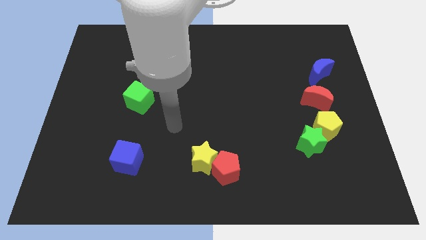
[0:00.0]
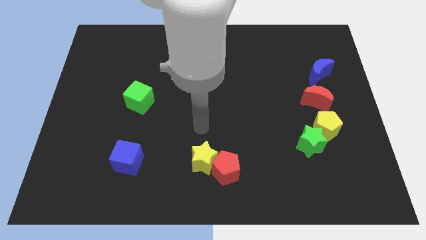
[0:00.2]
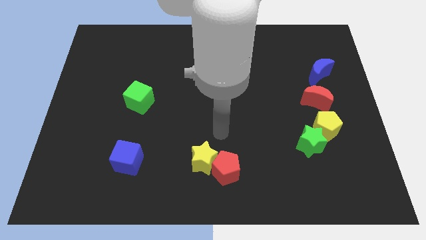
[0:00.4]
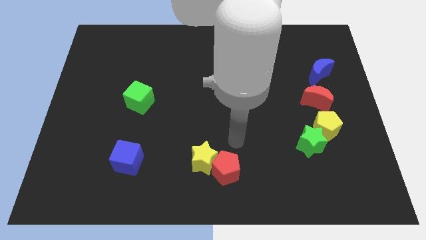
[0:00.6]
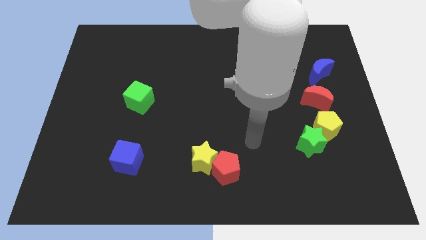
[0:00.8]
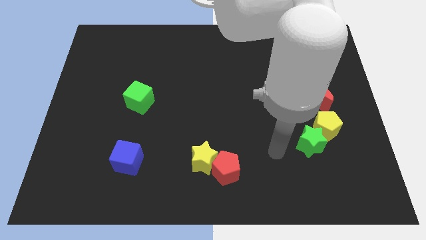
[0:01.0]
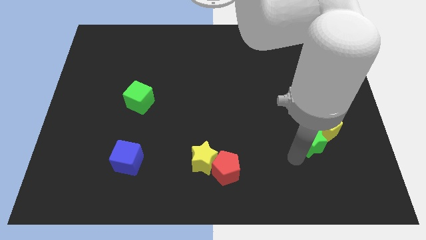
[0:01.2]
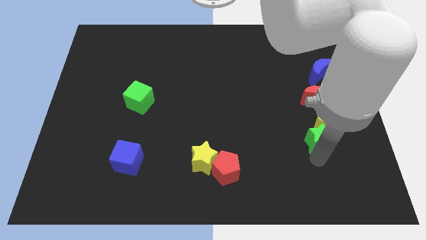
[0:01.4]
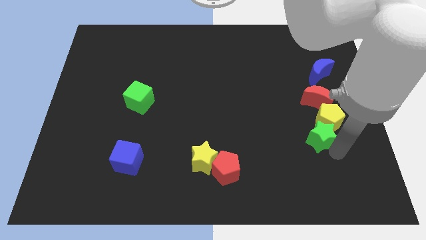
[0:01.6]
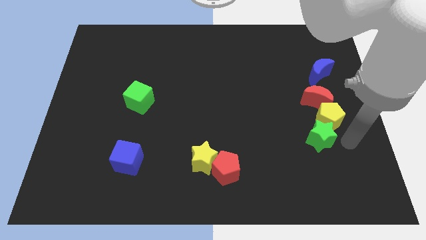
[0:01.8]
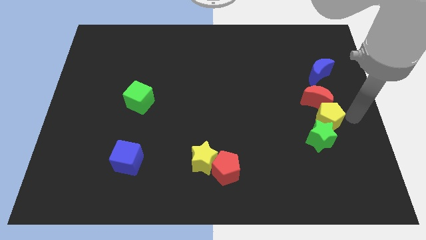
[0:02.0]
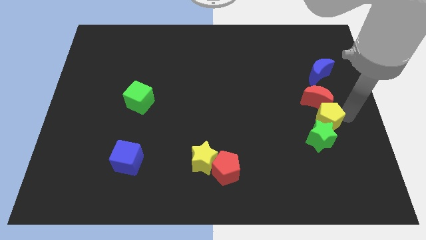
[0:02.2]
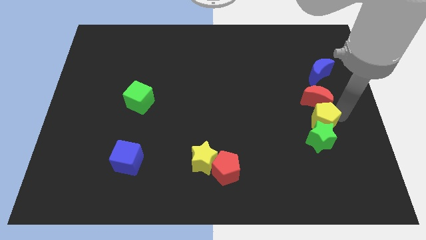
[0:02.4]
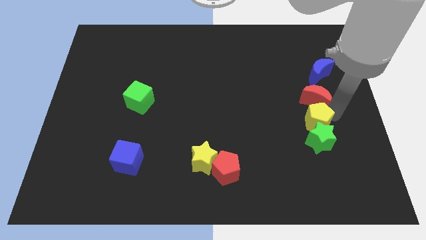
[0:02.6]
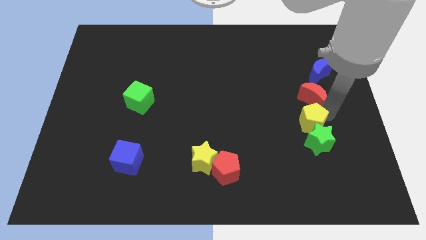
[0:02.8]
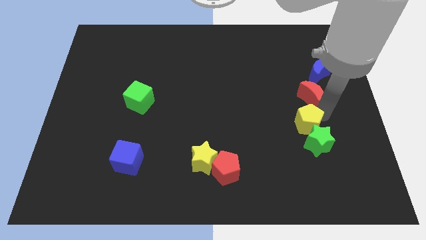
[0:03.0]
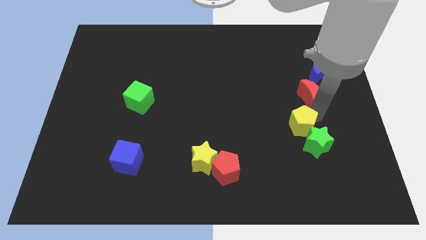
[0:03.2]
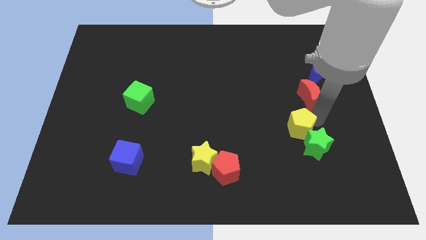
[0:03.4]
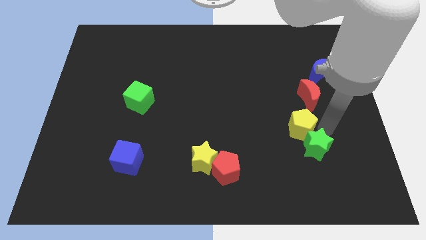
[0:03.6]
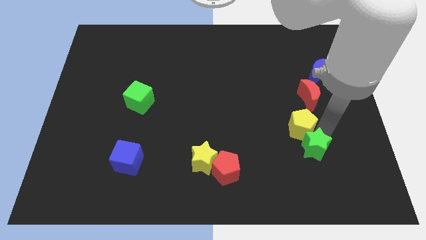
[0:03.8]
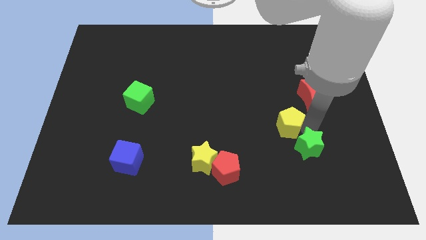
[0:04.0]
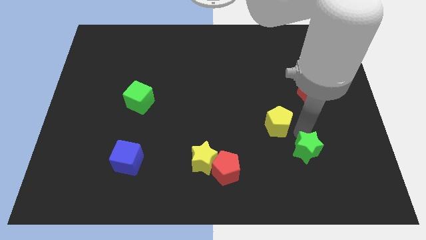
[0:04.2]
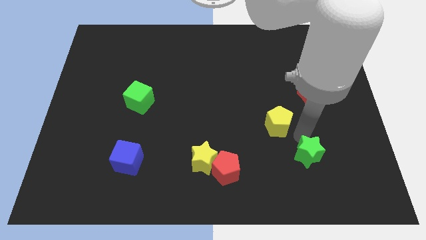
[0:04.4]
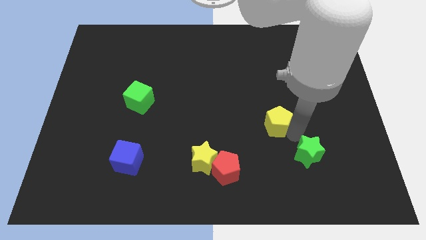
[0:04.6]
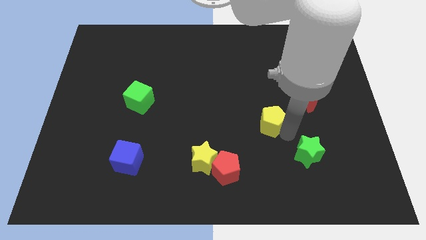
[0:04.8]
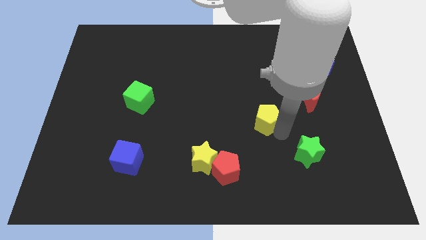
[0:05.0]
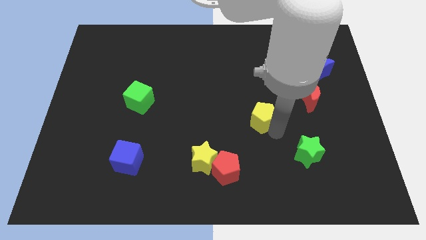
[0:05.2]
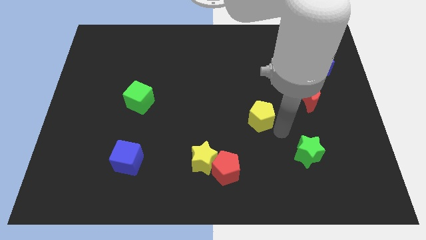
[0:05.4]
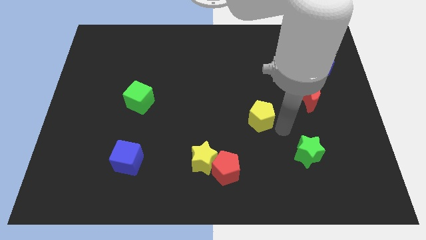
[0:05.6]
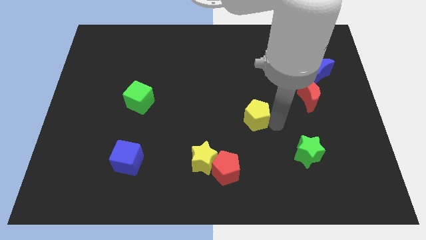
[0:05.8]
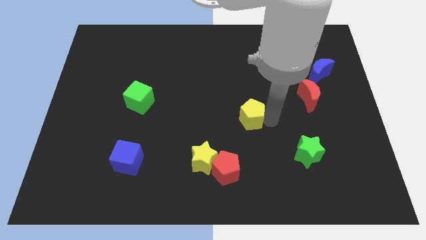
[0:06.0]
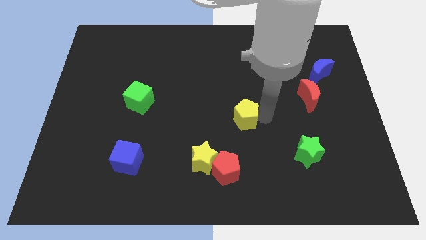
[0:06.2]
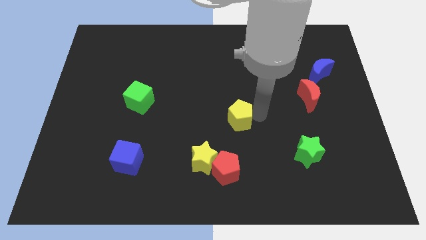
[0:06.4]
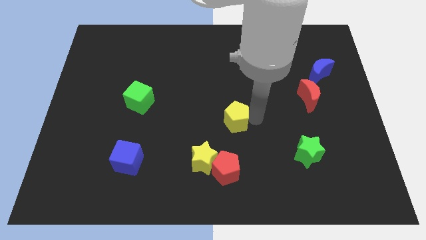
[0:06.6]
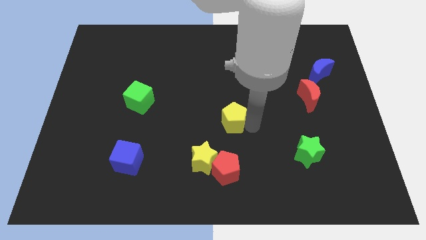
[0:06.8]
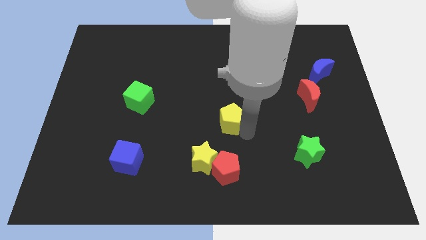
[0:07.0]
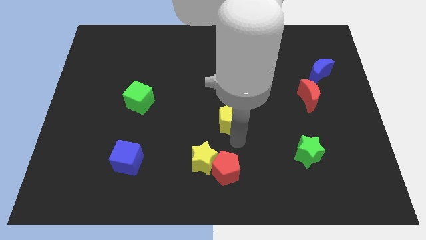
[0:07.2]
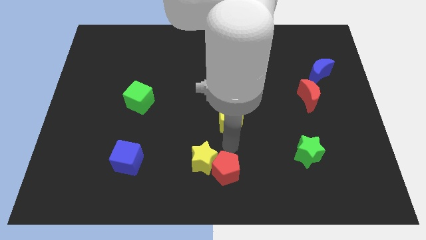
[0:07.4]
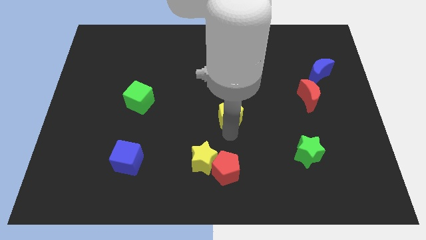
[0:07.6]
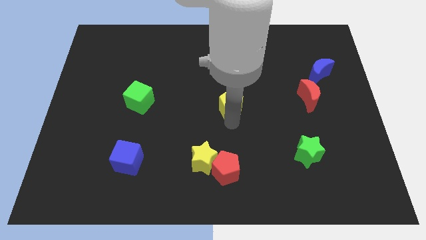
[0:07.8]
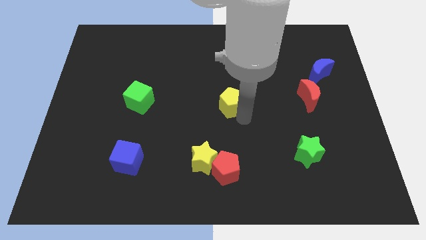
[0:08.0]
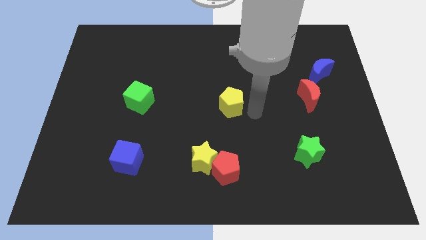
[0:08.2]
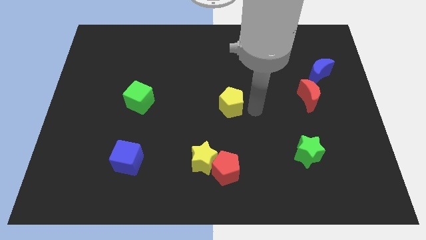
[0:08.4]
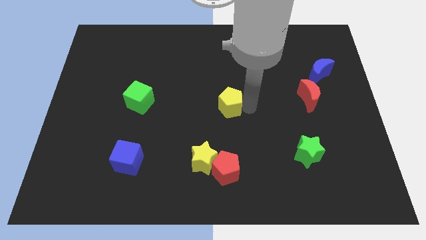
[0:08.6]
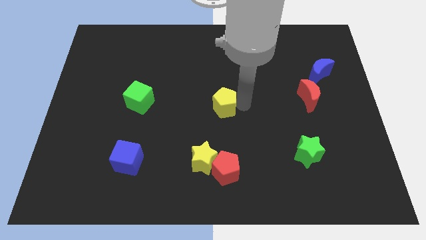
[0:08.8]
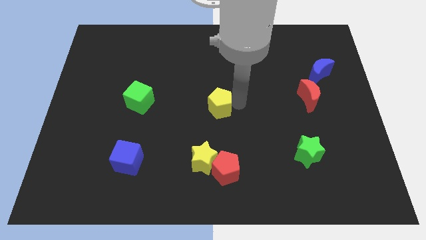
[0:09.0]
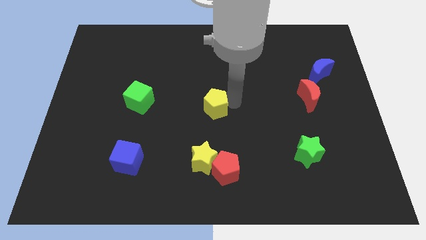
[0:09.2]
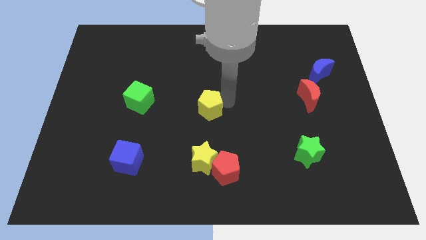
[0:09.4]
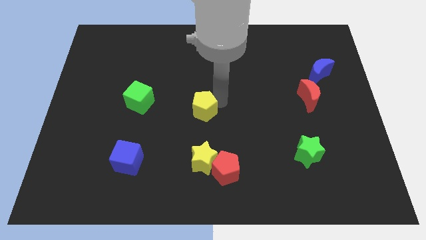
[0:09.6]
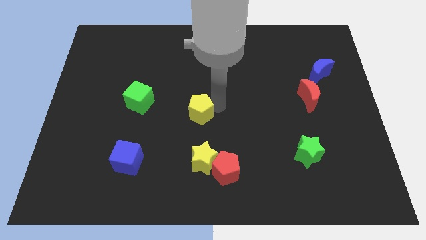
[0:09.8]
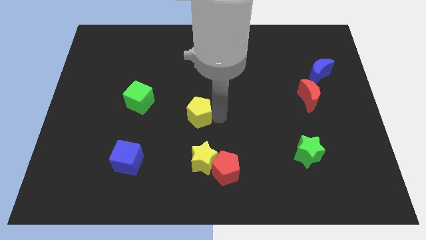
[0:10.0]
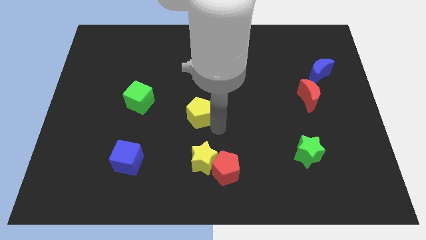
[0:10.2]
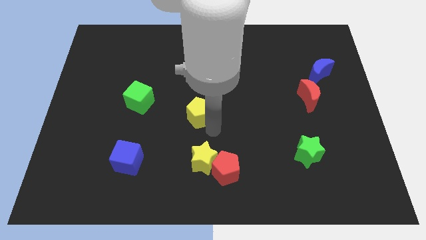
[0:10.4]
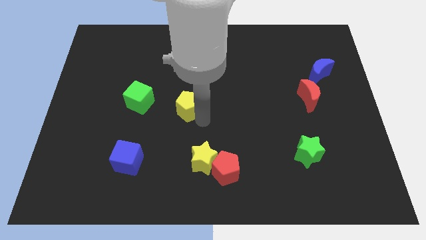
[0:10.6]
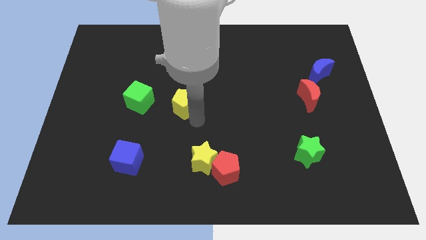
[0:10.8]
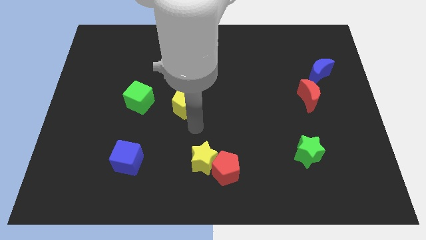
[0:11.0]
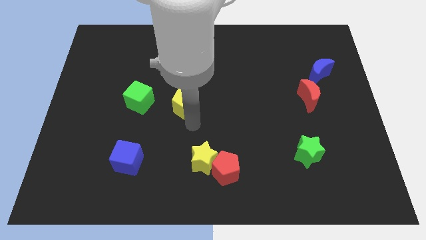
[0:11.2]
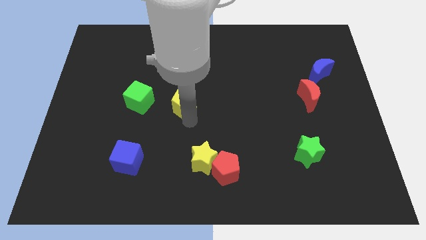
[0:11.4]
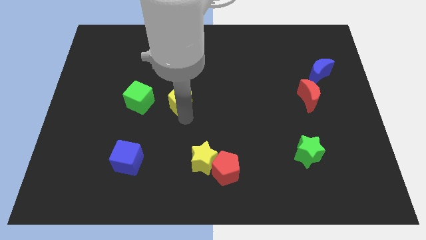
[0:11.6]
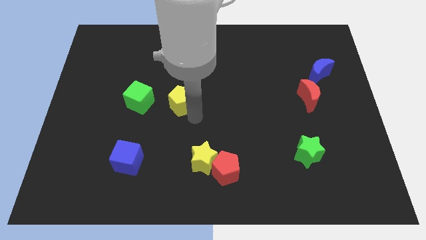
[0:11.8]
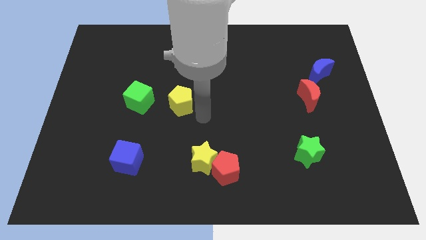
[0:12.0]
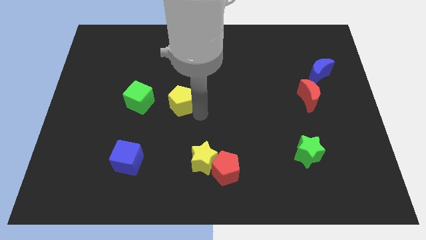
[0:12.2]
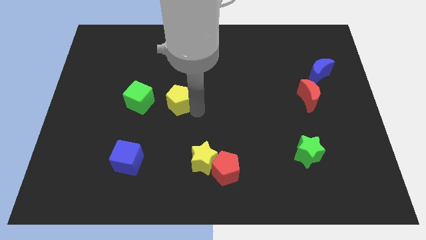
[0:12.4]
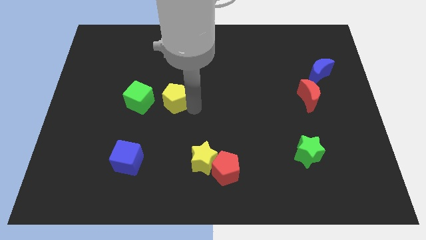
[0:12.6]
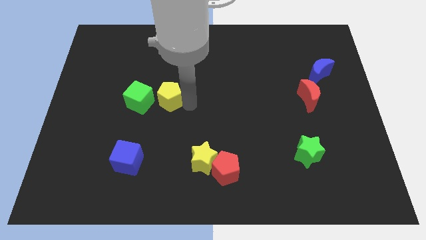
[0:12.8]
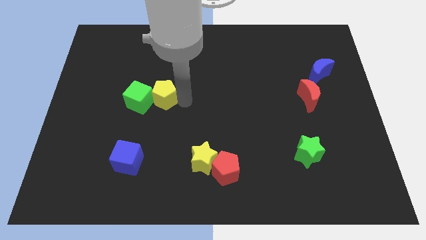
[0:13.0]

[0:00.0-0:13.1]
slide the yellow pentagon next to the green cube

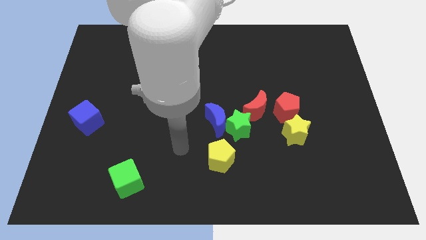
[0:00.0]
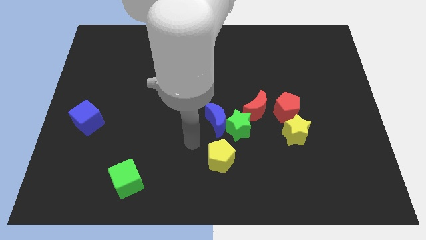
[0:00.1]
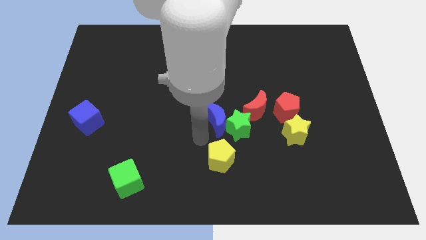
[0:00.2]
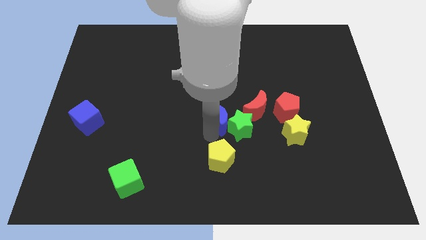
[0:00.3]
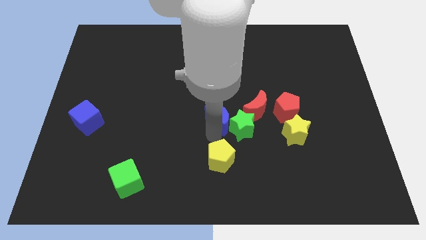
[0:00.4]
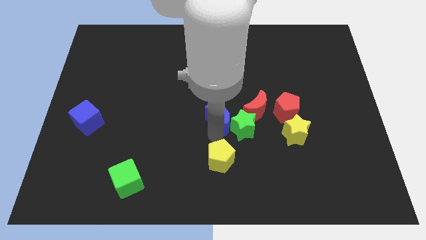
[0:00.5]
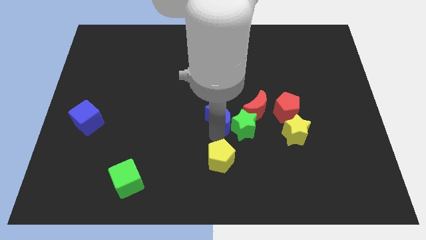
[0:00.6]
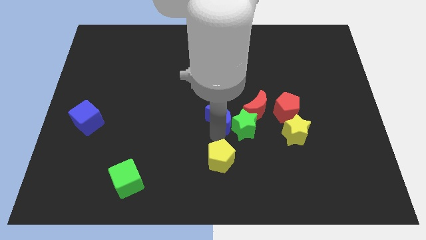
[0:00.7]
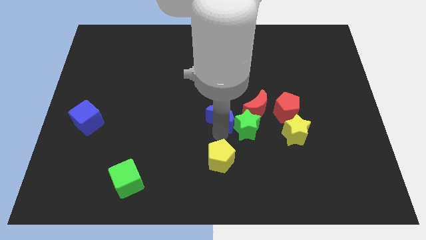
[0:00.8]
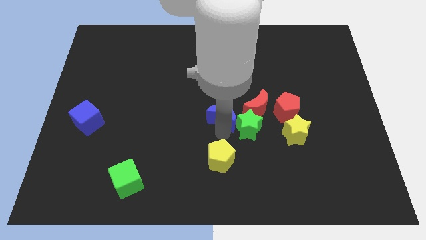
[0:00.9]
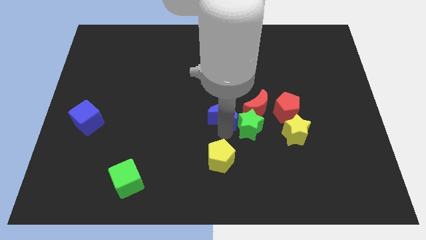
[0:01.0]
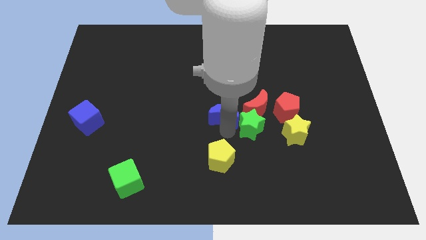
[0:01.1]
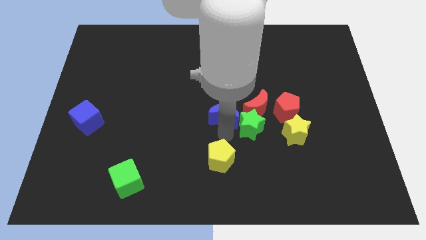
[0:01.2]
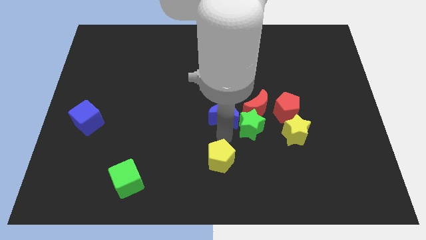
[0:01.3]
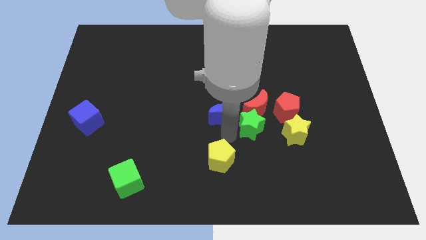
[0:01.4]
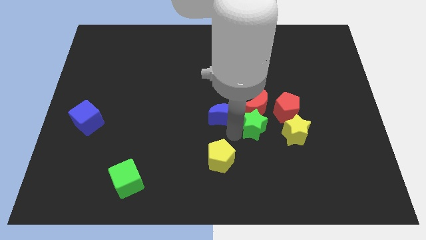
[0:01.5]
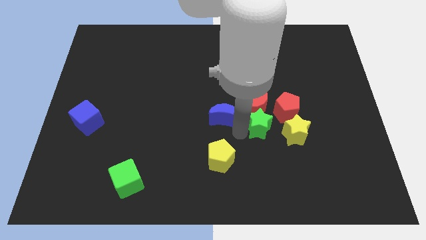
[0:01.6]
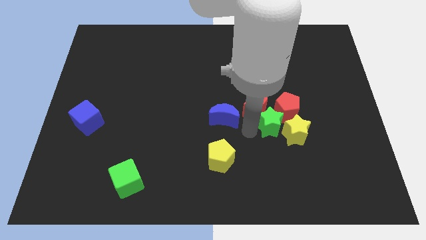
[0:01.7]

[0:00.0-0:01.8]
slide the green star to the red pentagon
